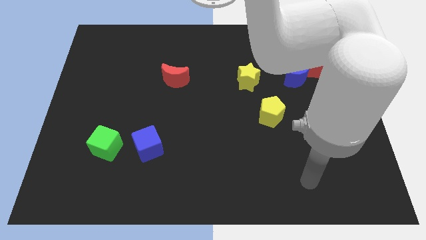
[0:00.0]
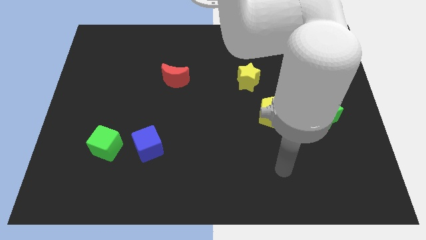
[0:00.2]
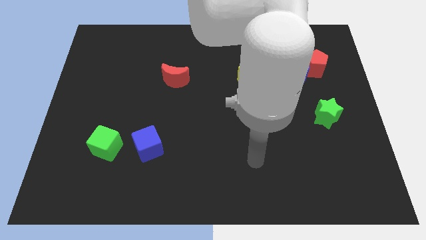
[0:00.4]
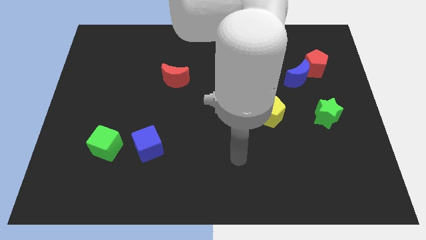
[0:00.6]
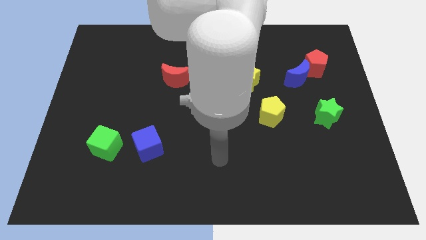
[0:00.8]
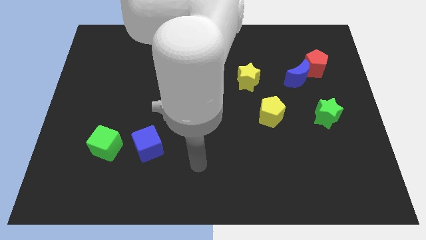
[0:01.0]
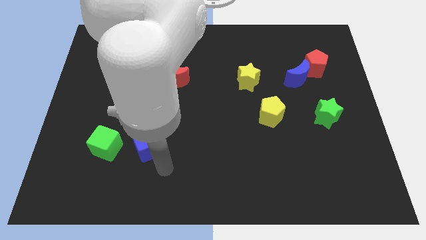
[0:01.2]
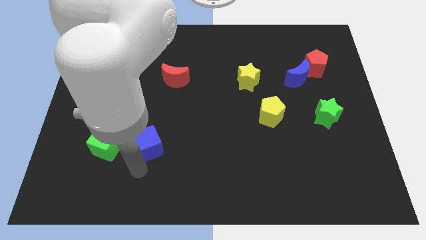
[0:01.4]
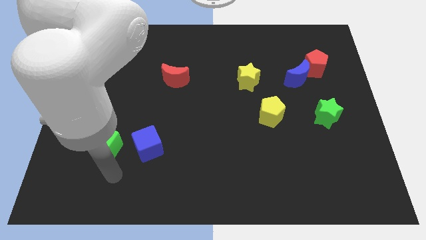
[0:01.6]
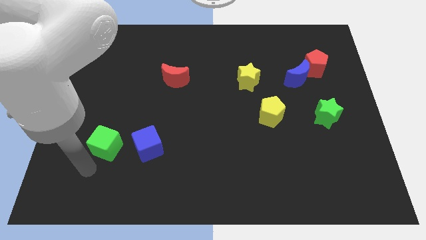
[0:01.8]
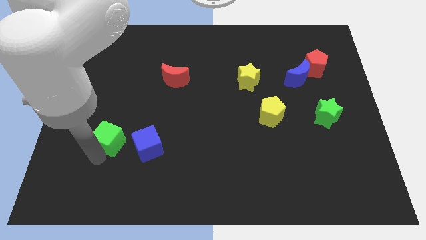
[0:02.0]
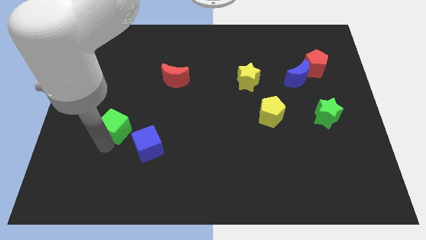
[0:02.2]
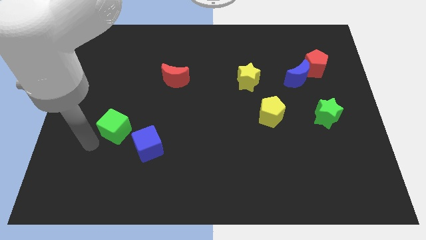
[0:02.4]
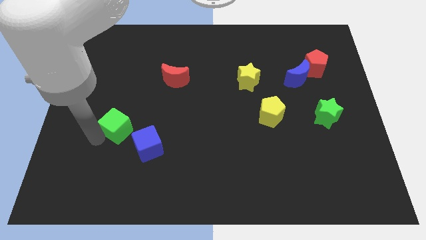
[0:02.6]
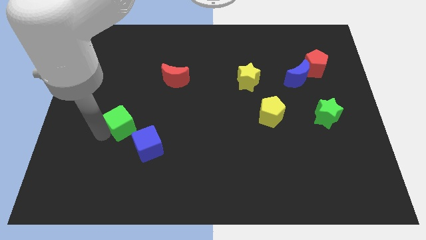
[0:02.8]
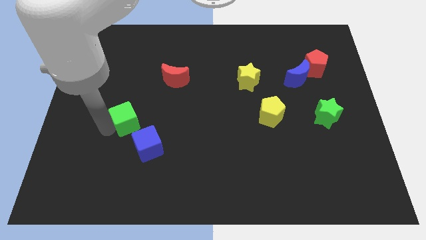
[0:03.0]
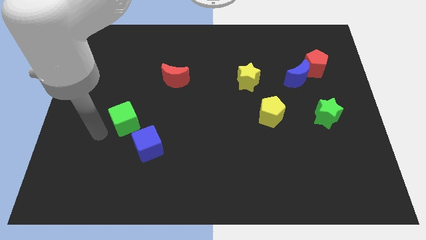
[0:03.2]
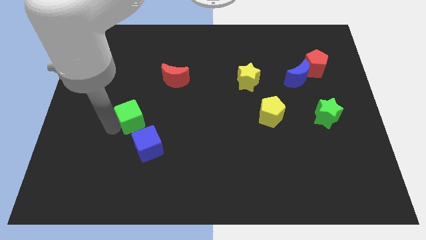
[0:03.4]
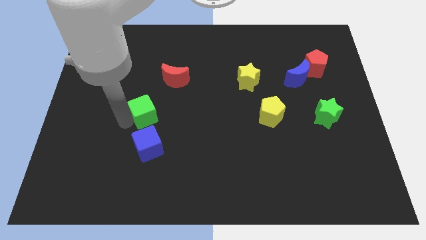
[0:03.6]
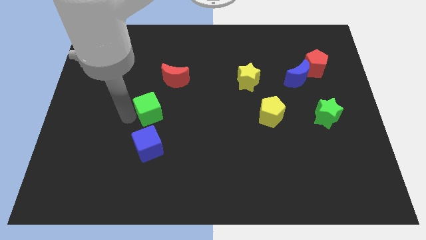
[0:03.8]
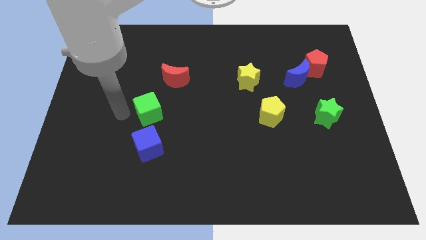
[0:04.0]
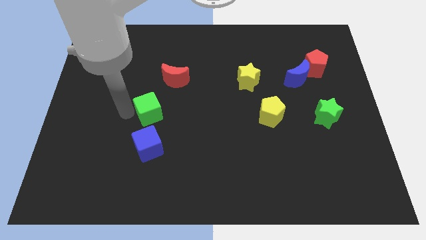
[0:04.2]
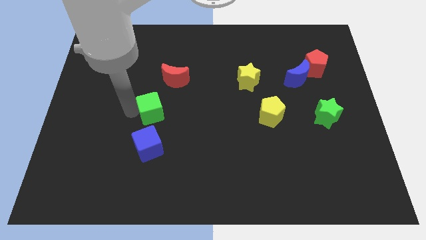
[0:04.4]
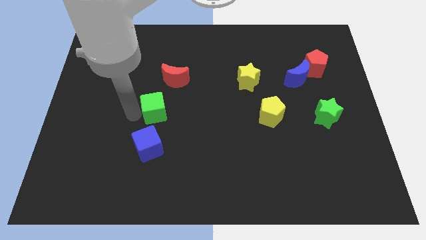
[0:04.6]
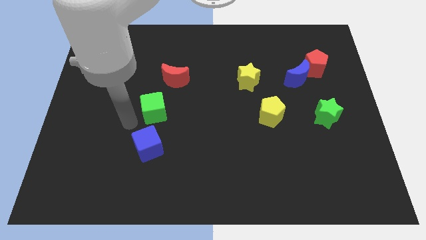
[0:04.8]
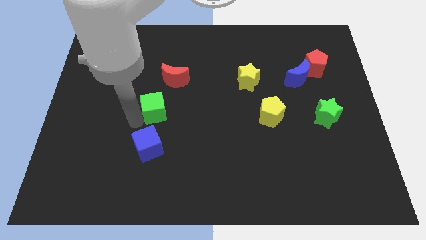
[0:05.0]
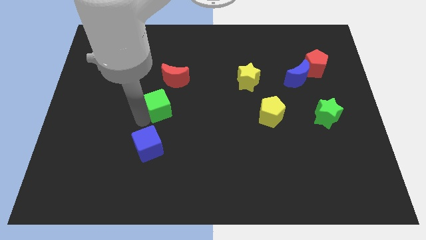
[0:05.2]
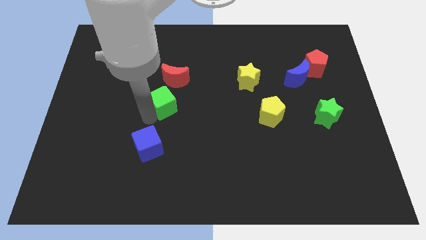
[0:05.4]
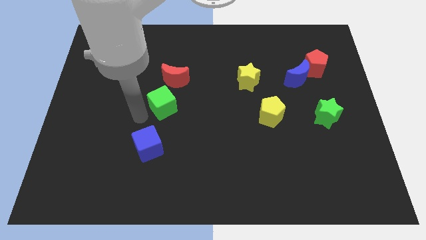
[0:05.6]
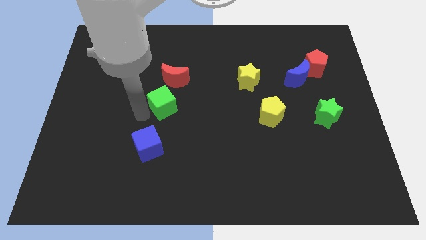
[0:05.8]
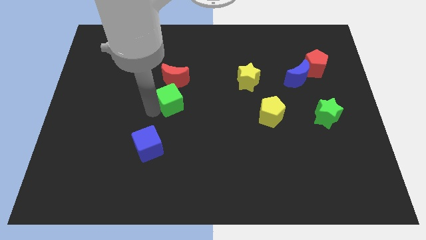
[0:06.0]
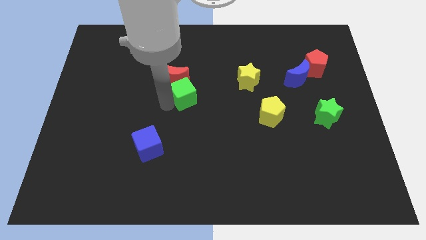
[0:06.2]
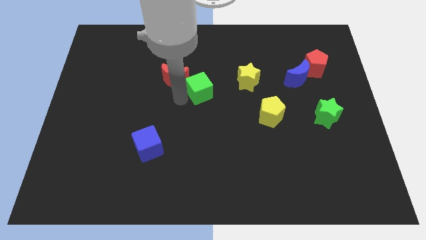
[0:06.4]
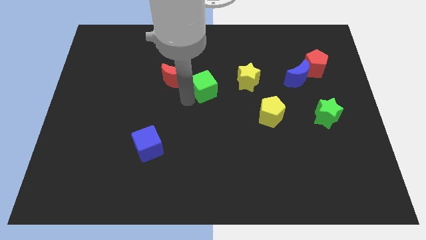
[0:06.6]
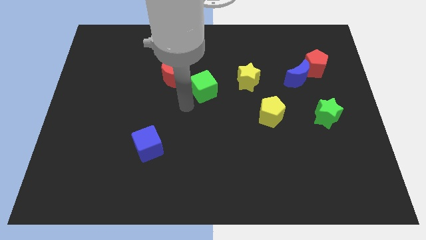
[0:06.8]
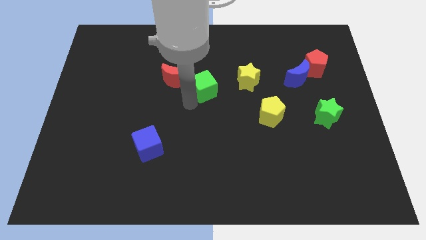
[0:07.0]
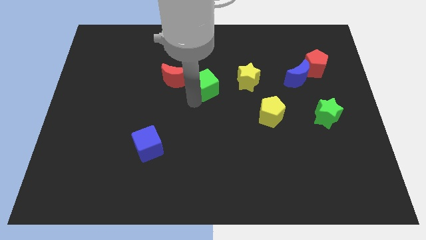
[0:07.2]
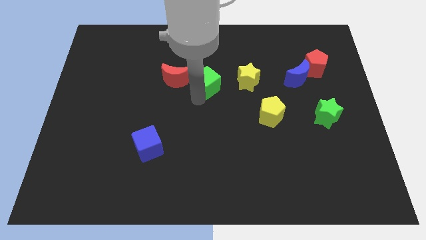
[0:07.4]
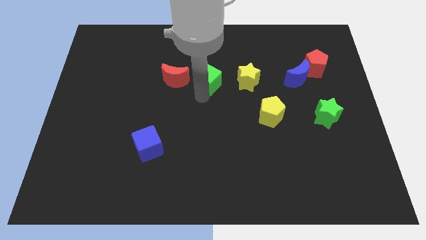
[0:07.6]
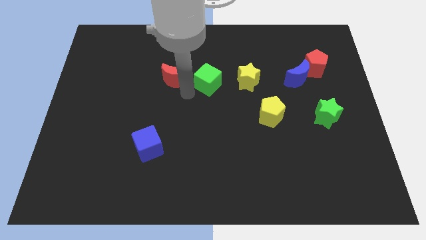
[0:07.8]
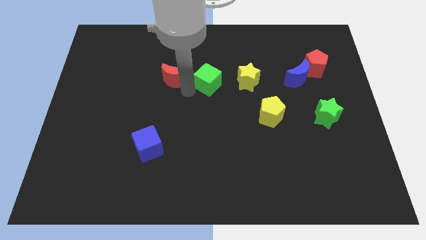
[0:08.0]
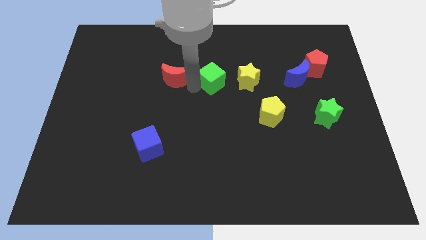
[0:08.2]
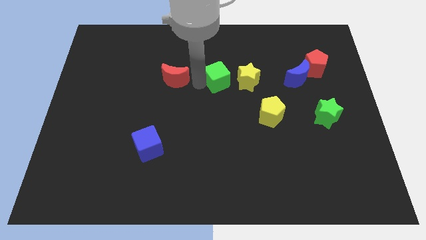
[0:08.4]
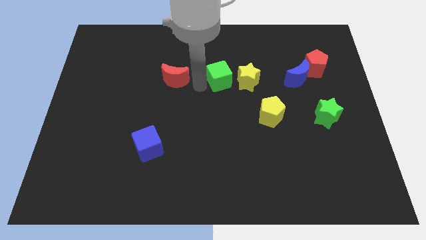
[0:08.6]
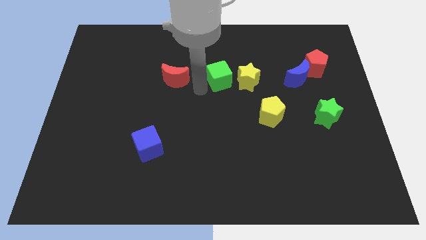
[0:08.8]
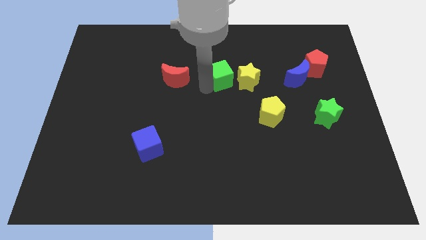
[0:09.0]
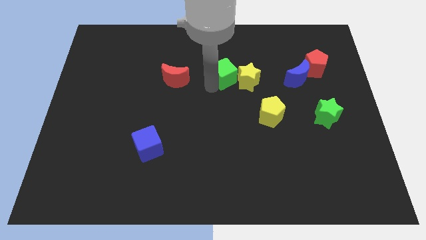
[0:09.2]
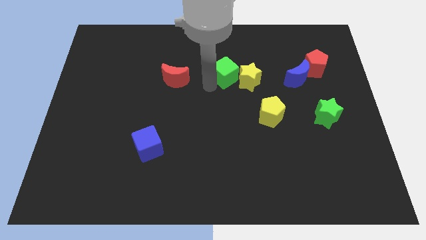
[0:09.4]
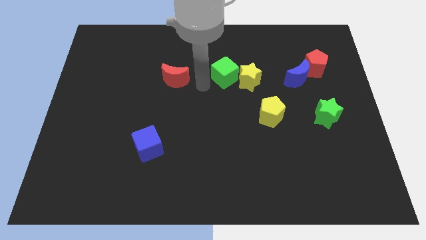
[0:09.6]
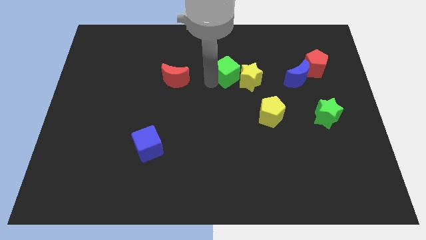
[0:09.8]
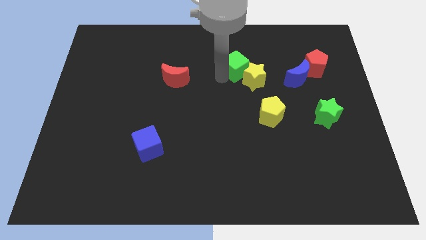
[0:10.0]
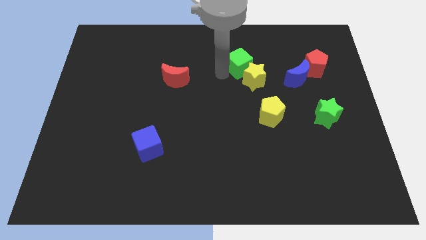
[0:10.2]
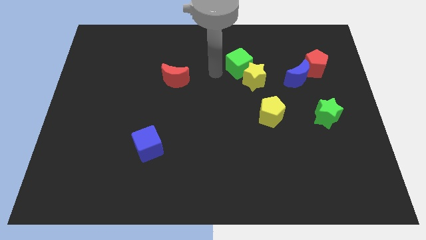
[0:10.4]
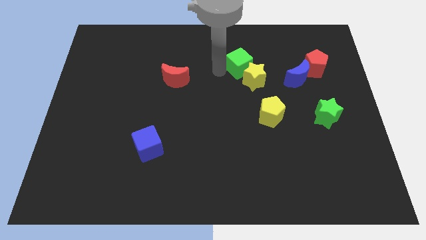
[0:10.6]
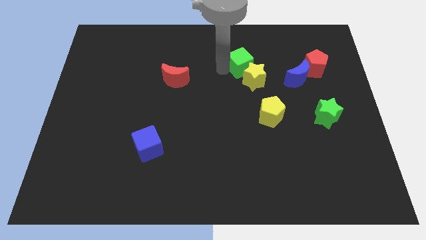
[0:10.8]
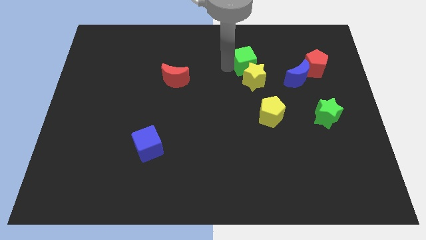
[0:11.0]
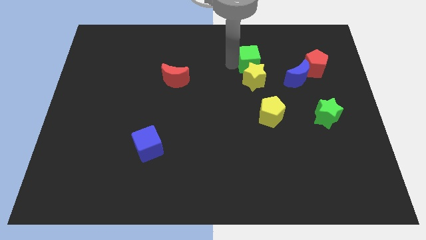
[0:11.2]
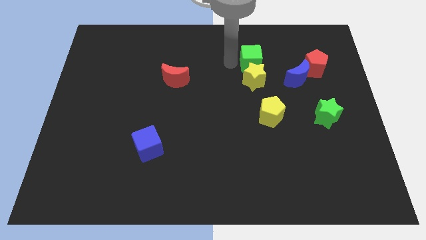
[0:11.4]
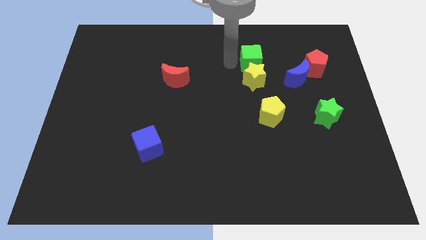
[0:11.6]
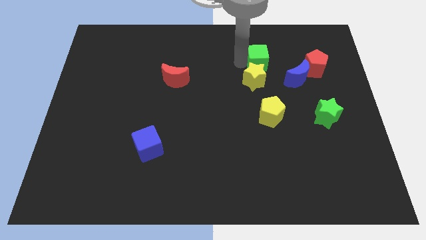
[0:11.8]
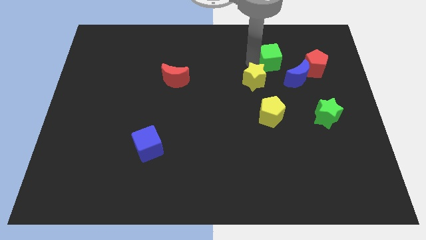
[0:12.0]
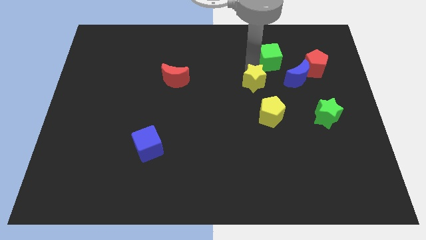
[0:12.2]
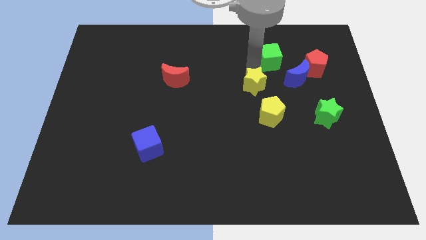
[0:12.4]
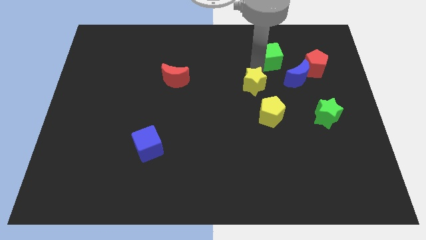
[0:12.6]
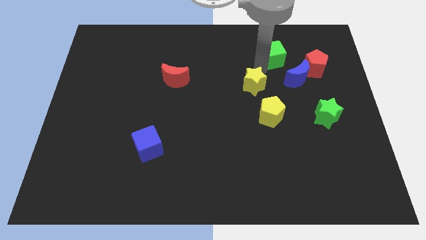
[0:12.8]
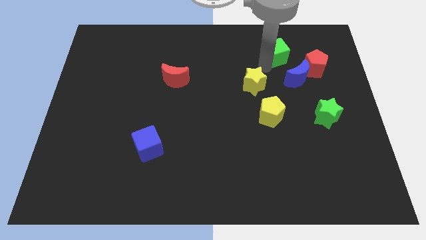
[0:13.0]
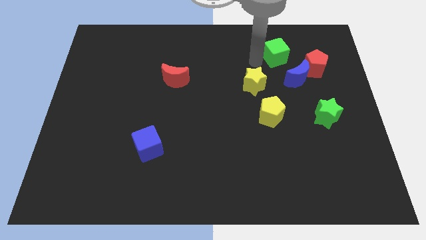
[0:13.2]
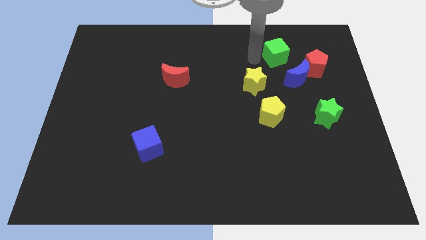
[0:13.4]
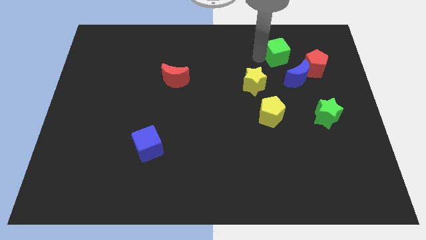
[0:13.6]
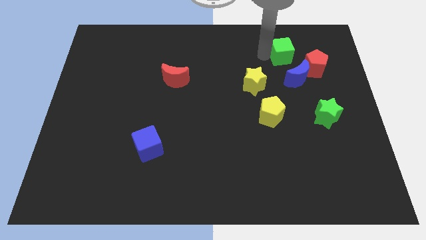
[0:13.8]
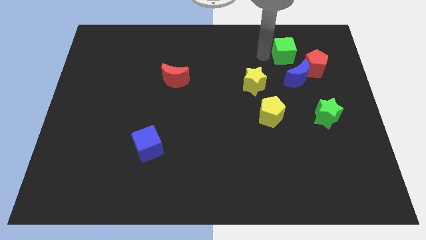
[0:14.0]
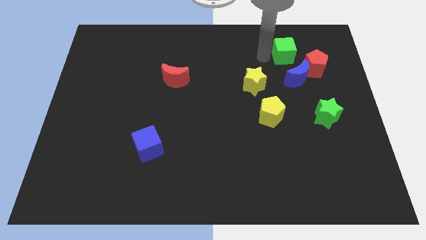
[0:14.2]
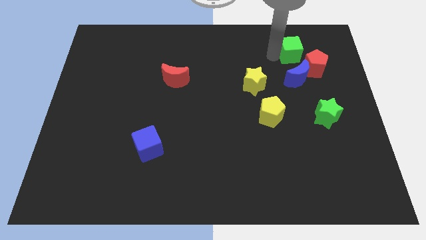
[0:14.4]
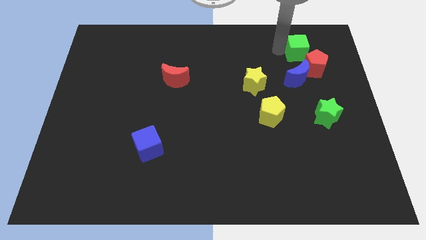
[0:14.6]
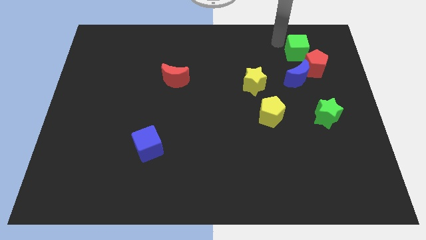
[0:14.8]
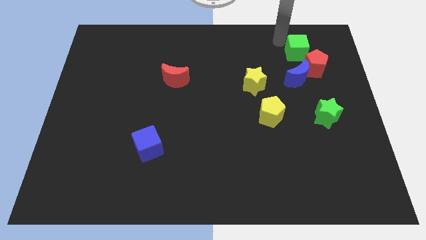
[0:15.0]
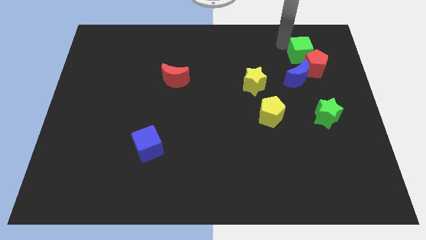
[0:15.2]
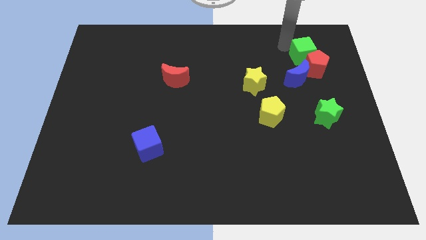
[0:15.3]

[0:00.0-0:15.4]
slide the green cube to the top right of the blue moon
